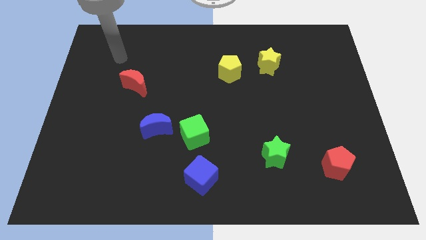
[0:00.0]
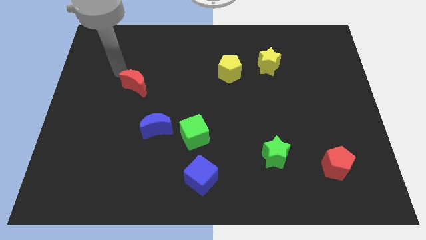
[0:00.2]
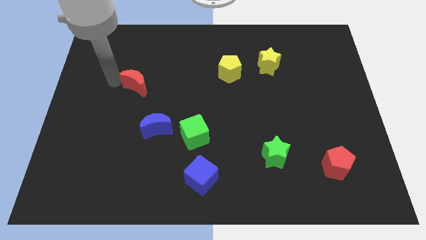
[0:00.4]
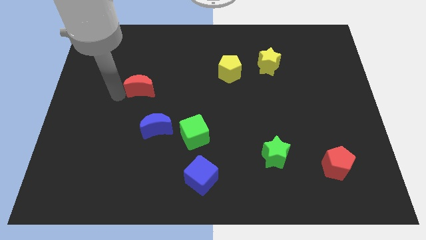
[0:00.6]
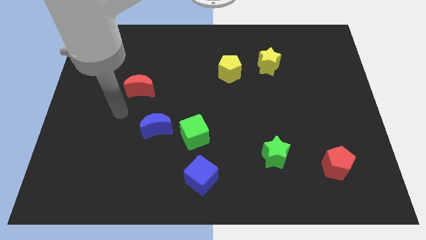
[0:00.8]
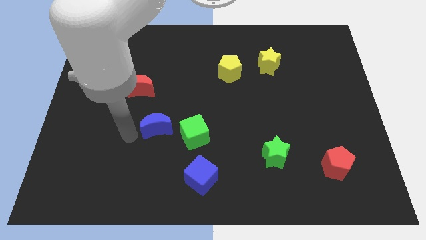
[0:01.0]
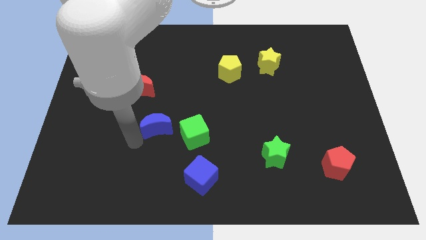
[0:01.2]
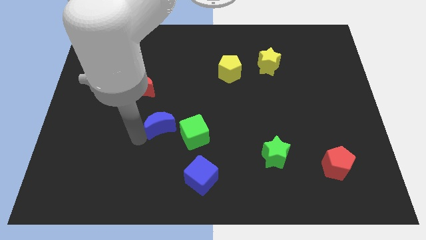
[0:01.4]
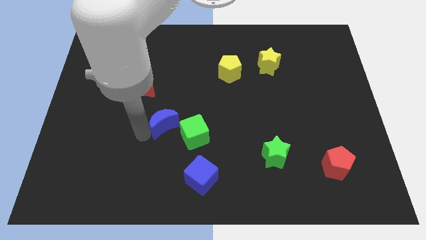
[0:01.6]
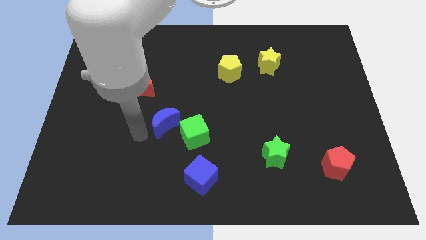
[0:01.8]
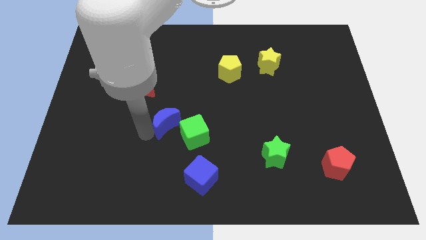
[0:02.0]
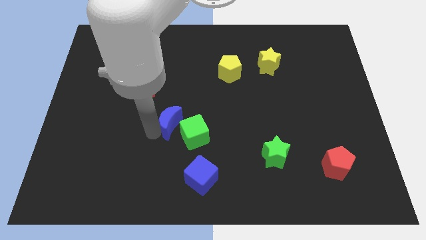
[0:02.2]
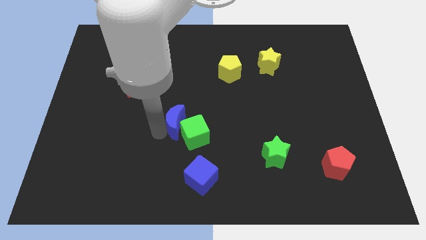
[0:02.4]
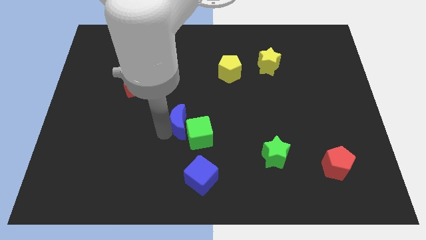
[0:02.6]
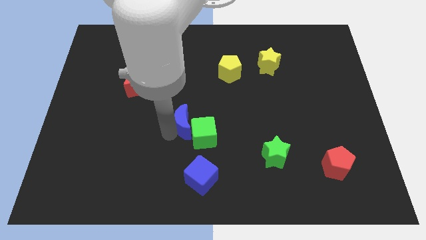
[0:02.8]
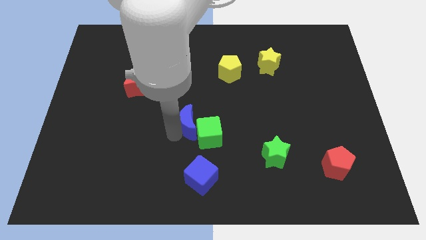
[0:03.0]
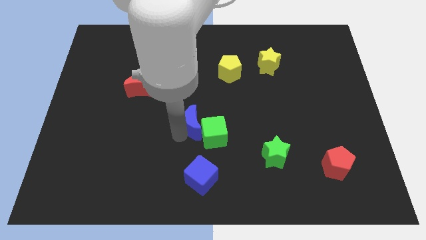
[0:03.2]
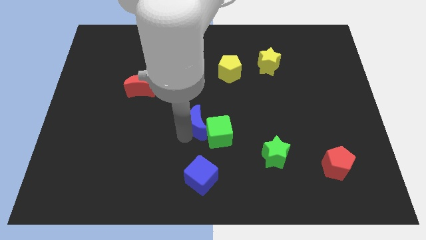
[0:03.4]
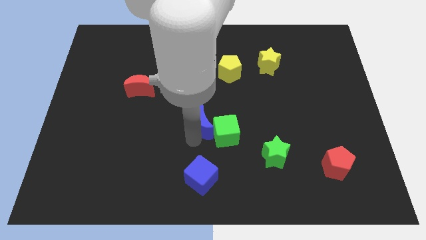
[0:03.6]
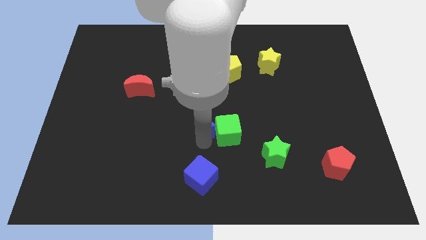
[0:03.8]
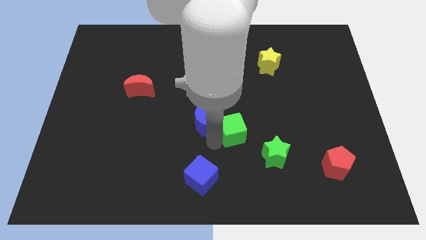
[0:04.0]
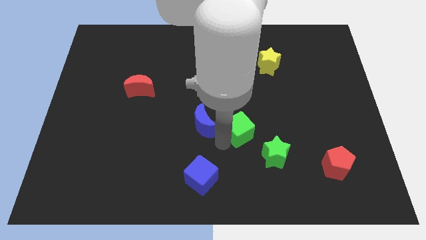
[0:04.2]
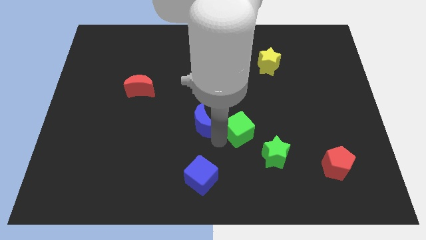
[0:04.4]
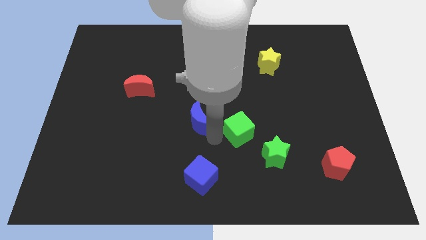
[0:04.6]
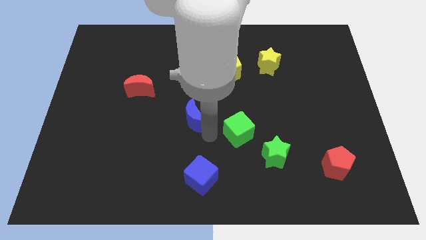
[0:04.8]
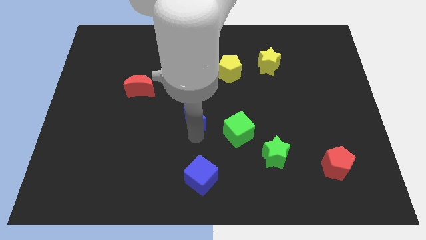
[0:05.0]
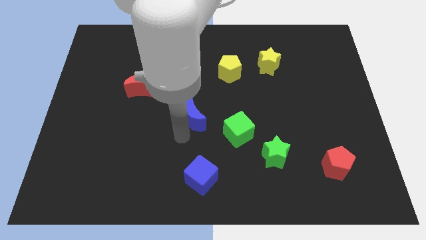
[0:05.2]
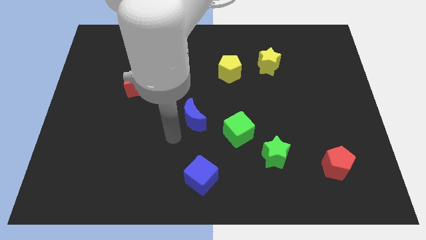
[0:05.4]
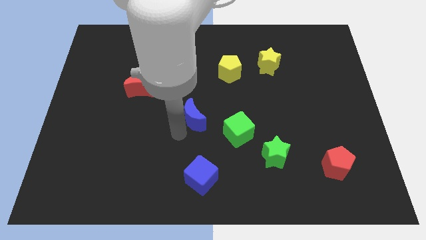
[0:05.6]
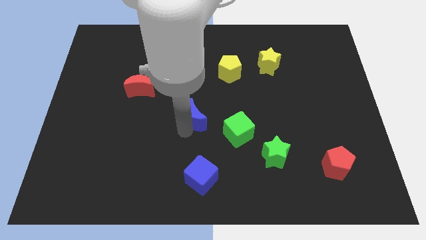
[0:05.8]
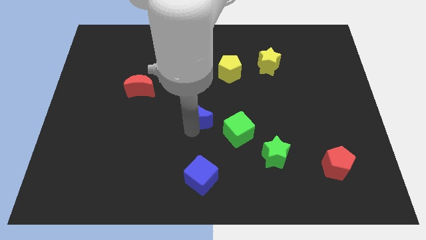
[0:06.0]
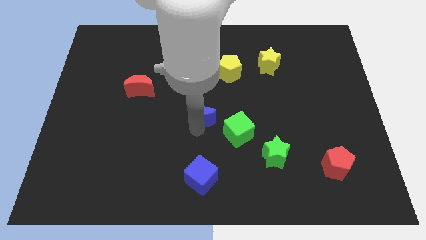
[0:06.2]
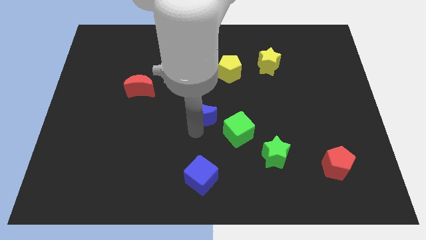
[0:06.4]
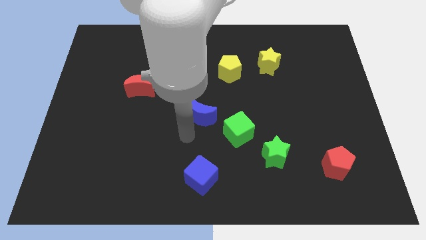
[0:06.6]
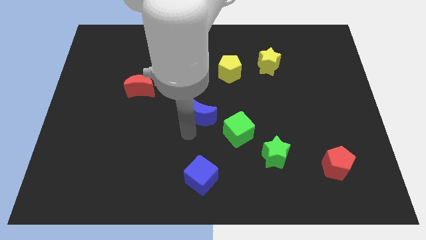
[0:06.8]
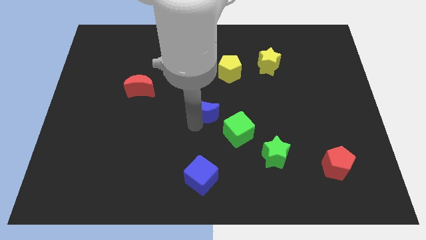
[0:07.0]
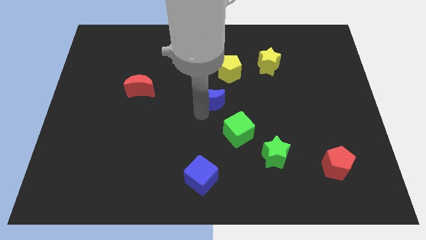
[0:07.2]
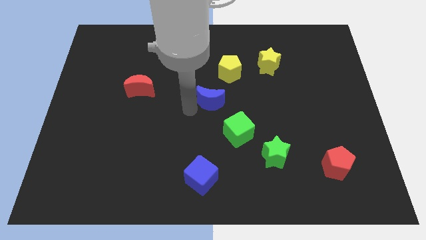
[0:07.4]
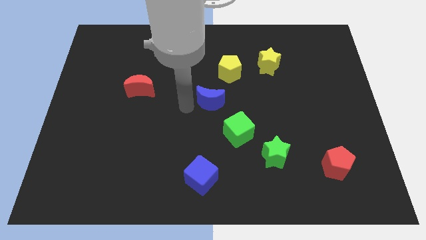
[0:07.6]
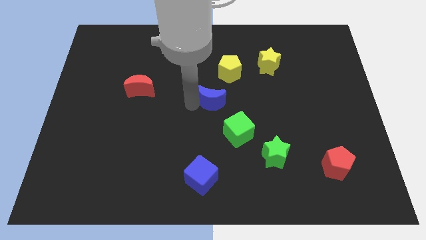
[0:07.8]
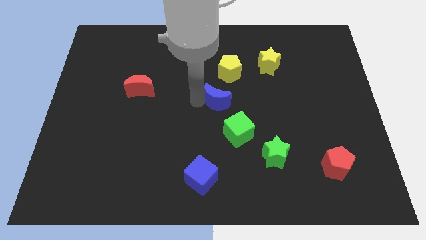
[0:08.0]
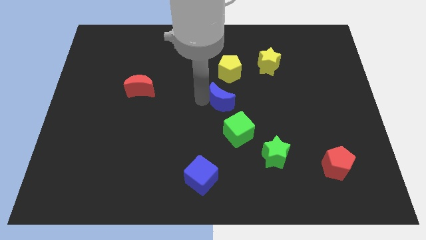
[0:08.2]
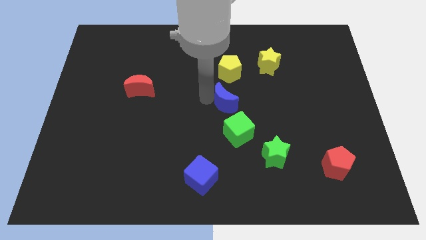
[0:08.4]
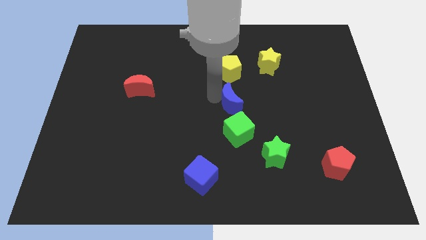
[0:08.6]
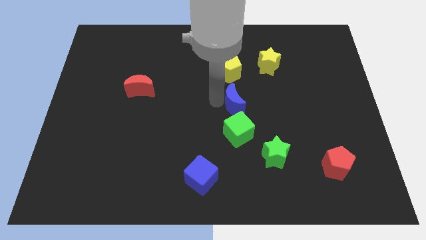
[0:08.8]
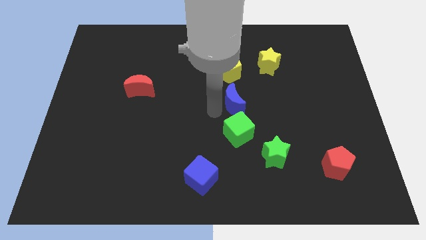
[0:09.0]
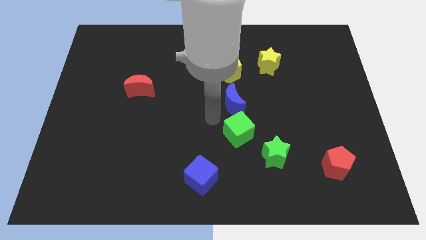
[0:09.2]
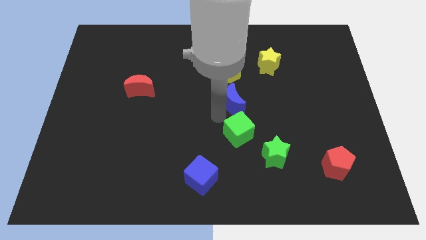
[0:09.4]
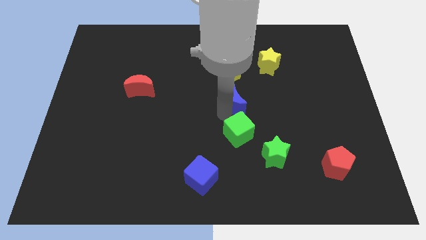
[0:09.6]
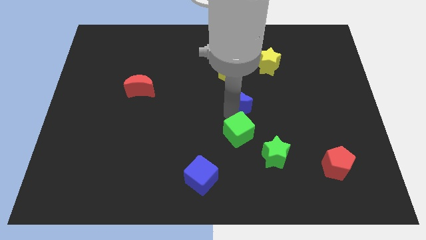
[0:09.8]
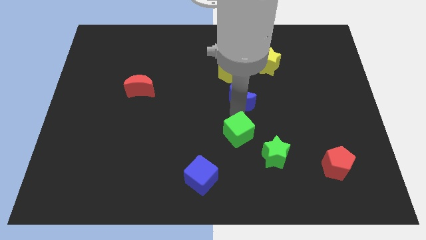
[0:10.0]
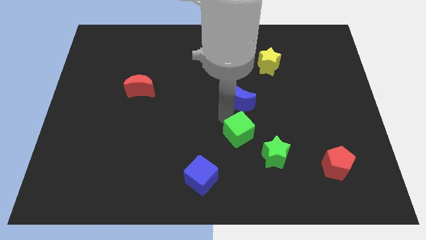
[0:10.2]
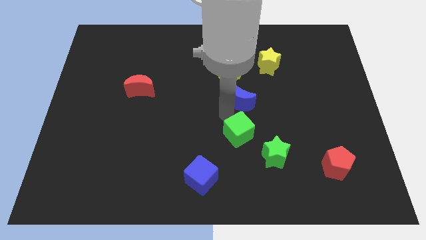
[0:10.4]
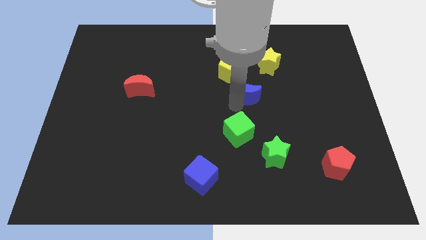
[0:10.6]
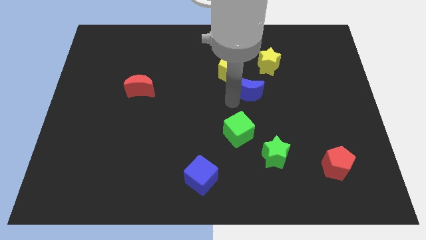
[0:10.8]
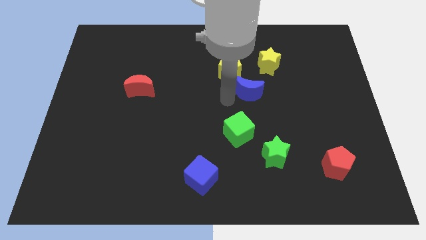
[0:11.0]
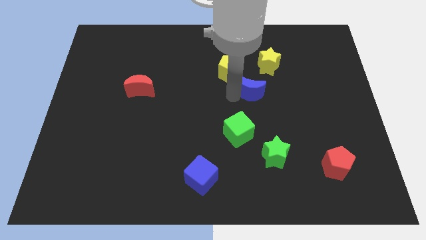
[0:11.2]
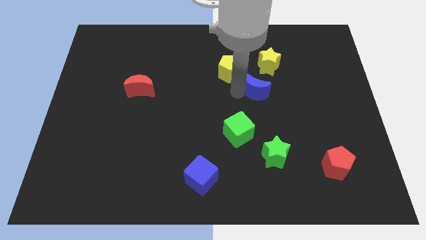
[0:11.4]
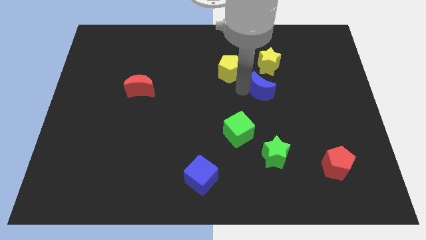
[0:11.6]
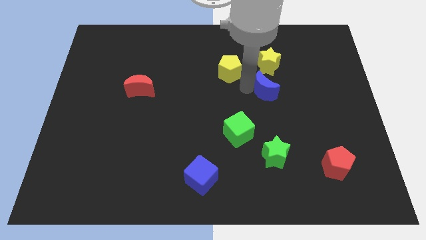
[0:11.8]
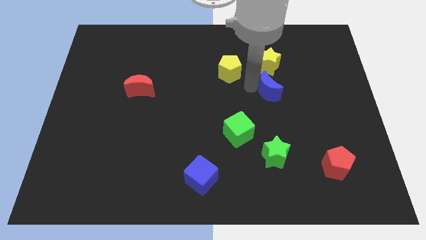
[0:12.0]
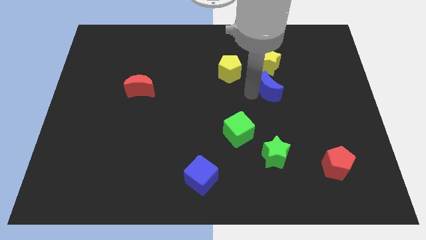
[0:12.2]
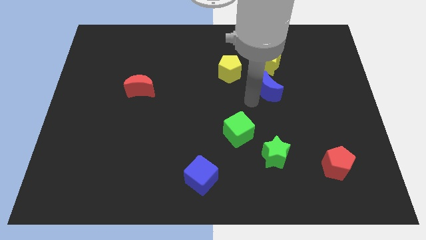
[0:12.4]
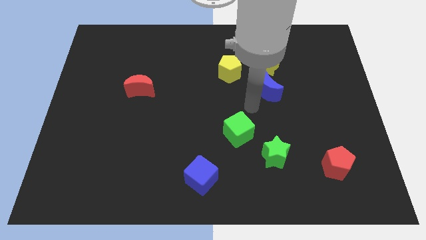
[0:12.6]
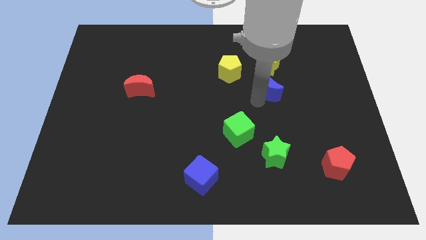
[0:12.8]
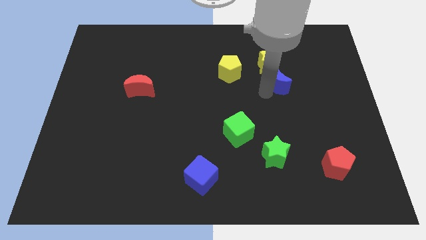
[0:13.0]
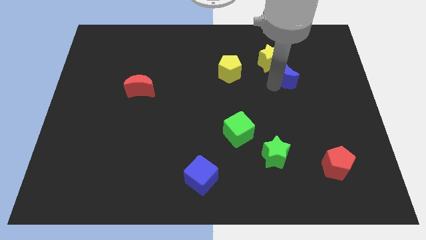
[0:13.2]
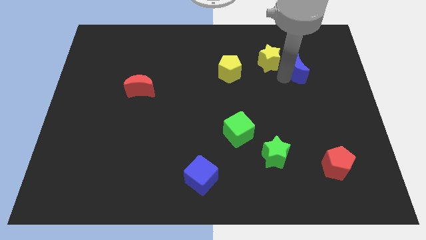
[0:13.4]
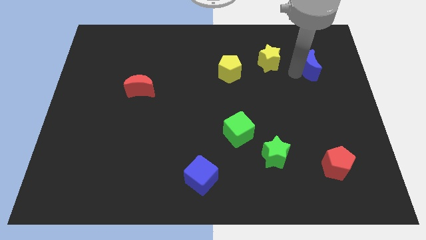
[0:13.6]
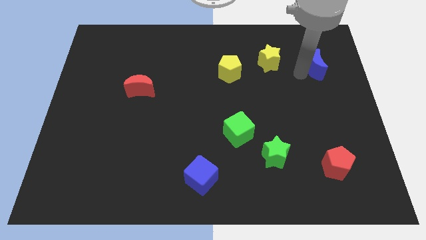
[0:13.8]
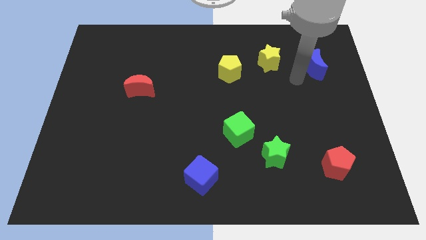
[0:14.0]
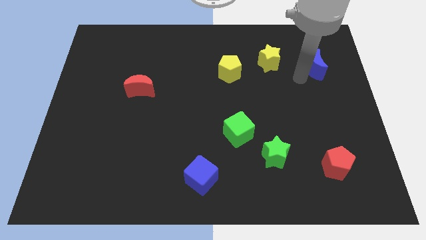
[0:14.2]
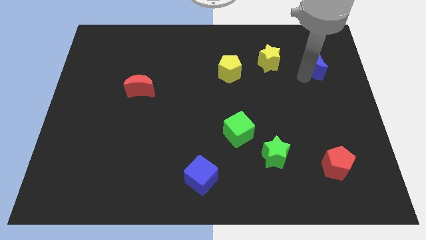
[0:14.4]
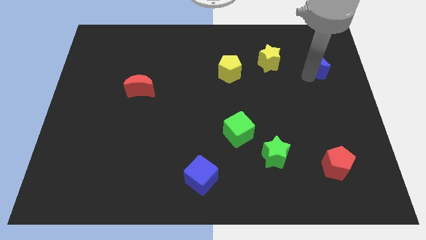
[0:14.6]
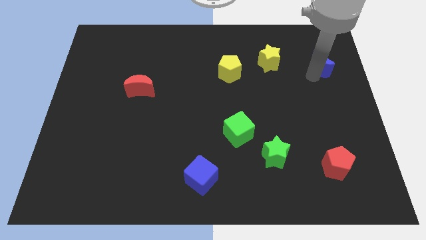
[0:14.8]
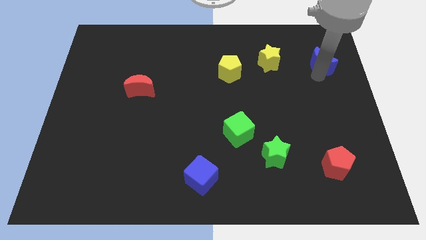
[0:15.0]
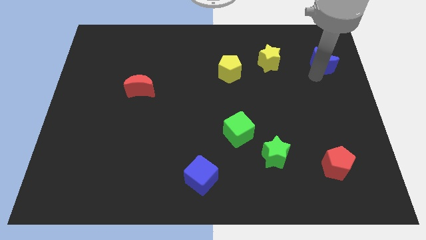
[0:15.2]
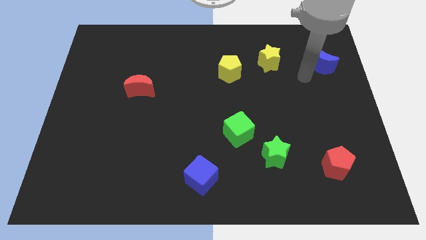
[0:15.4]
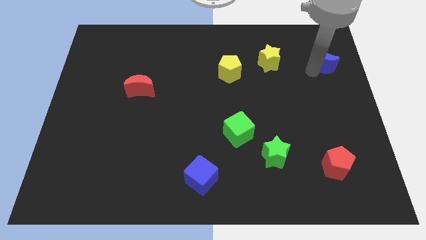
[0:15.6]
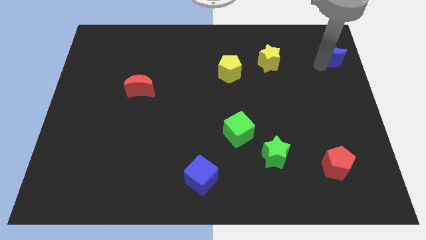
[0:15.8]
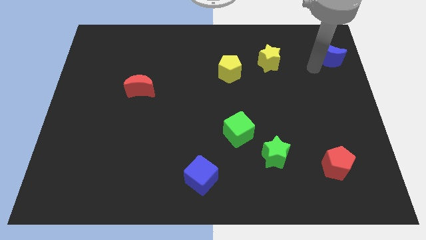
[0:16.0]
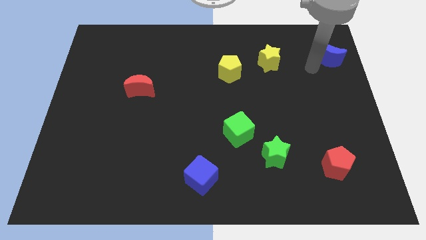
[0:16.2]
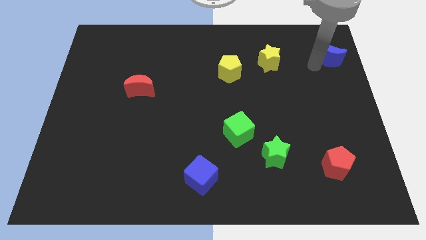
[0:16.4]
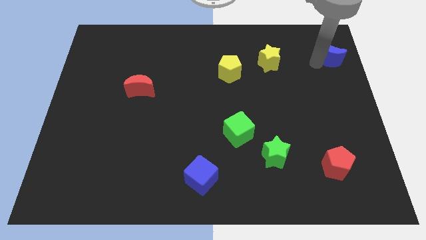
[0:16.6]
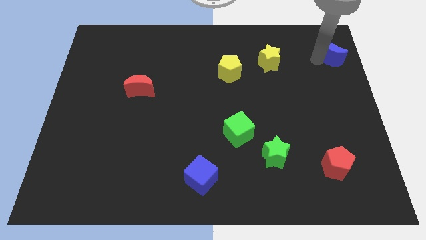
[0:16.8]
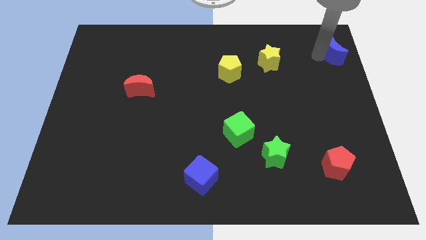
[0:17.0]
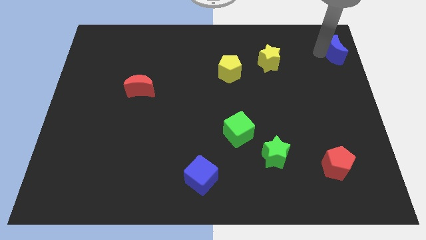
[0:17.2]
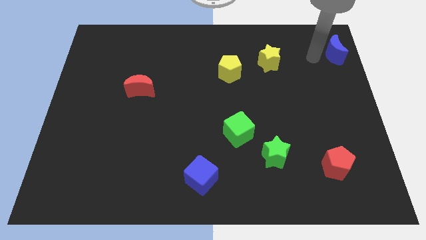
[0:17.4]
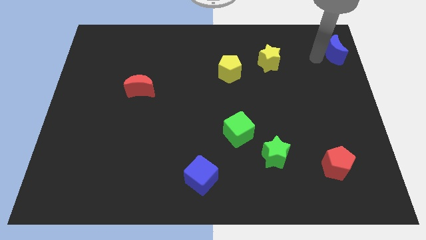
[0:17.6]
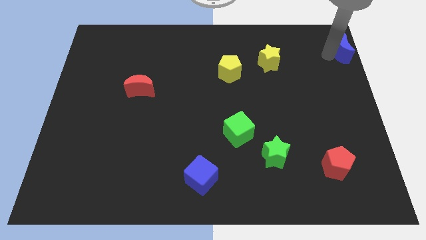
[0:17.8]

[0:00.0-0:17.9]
move the blue moon to the top right
